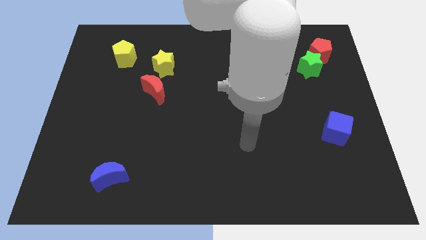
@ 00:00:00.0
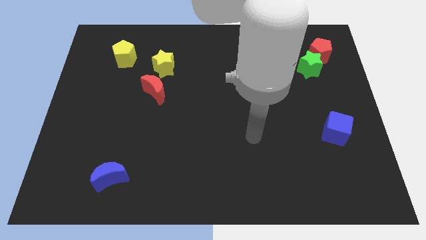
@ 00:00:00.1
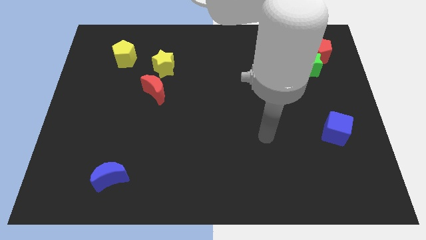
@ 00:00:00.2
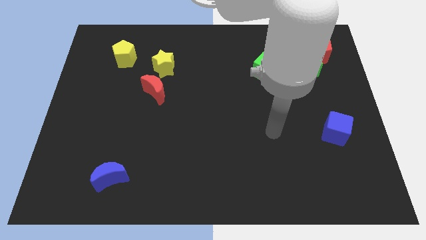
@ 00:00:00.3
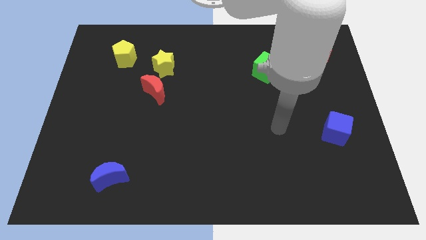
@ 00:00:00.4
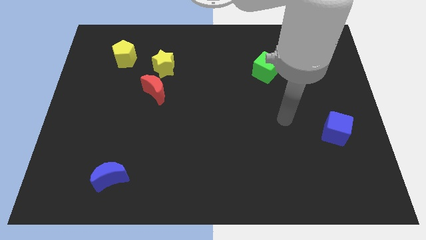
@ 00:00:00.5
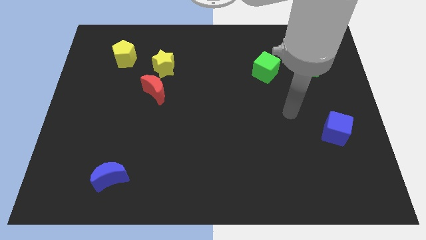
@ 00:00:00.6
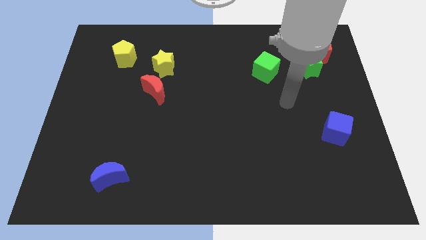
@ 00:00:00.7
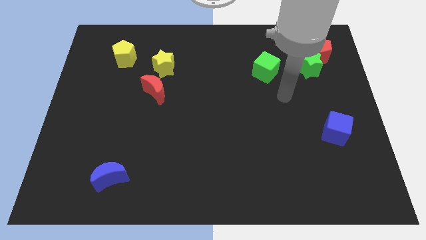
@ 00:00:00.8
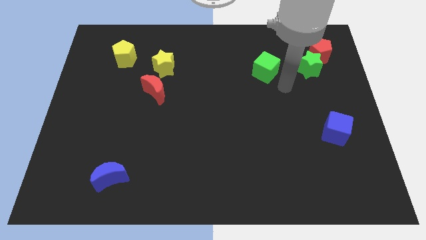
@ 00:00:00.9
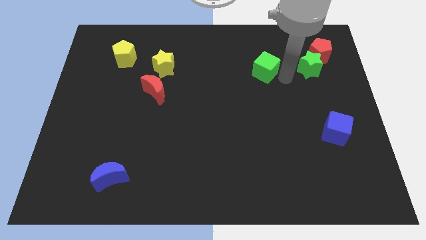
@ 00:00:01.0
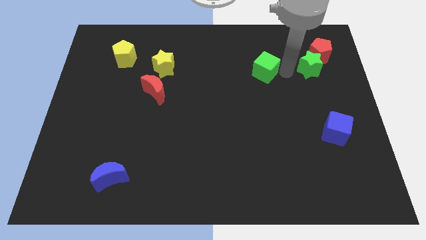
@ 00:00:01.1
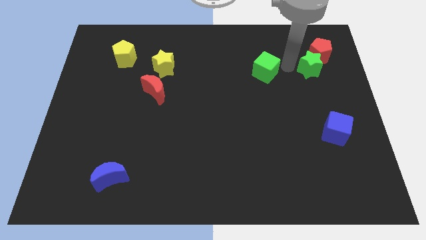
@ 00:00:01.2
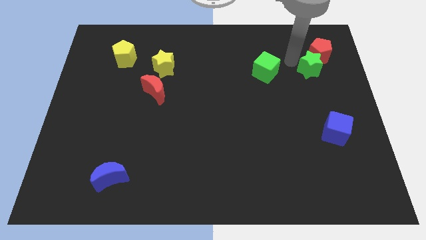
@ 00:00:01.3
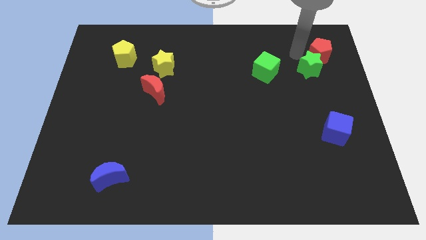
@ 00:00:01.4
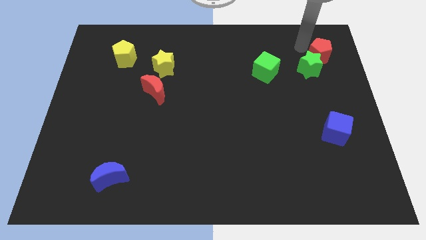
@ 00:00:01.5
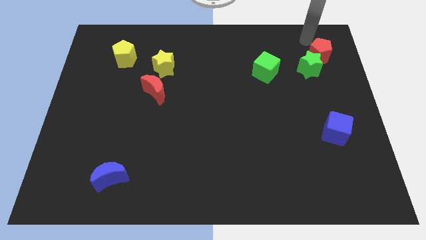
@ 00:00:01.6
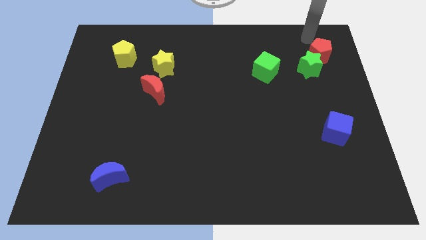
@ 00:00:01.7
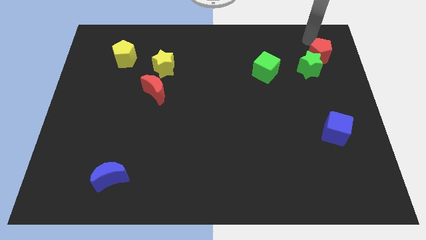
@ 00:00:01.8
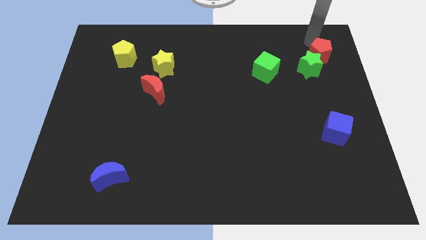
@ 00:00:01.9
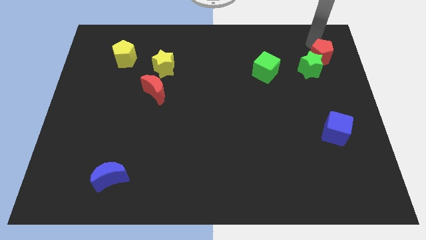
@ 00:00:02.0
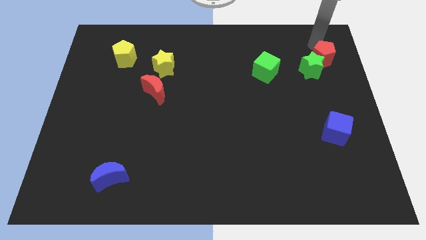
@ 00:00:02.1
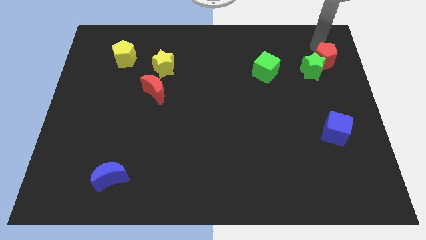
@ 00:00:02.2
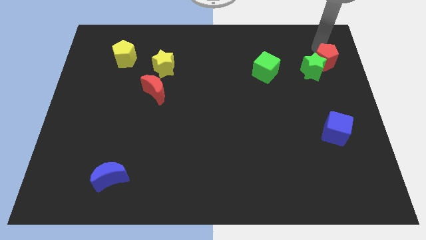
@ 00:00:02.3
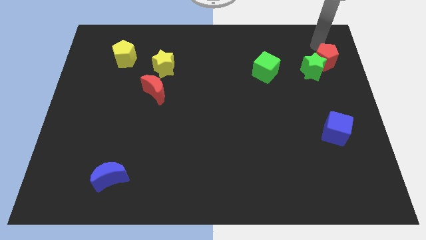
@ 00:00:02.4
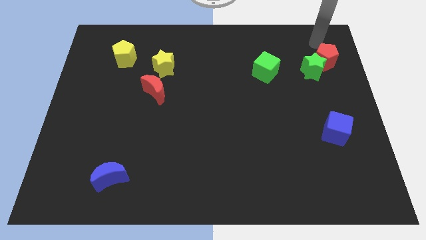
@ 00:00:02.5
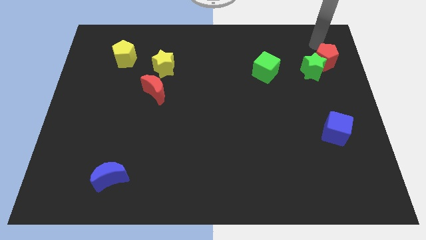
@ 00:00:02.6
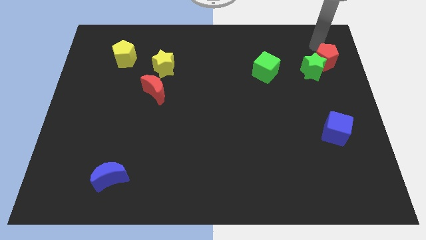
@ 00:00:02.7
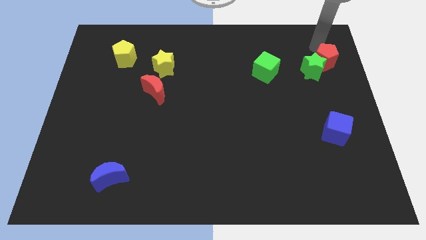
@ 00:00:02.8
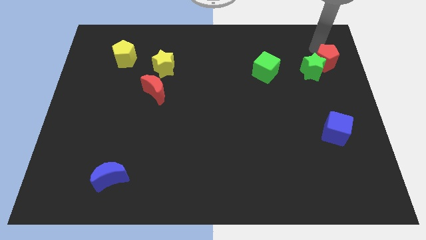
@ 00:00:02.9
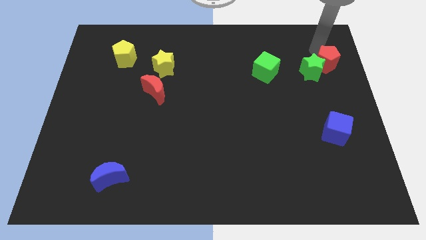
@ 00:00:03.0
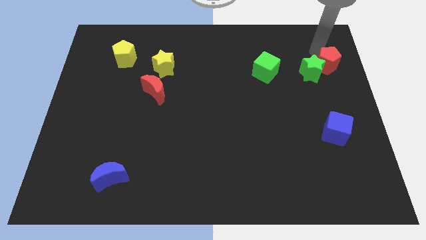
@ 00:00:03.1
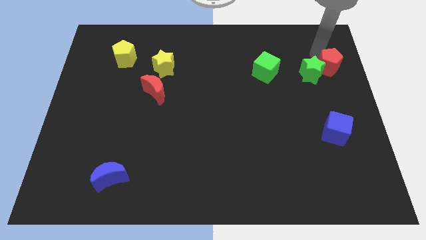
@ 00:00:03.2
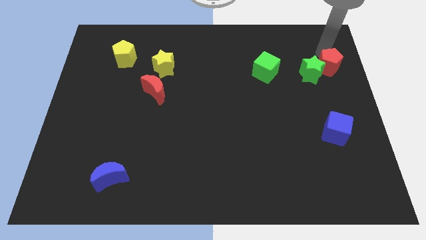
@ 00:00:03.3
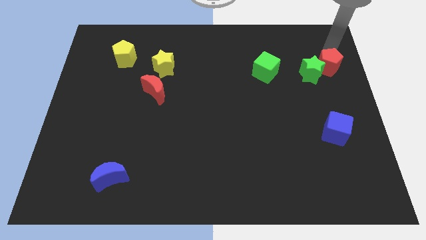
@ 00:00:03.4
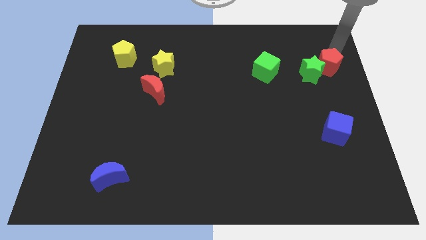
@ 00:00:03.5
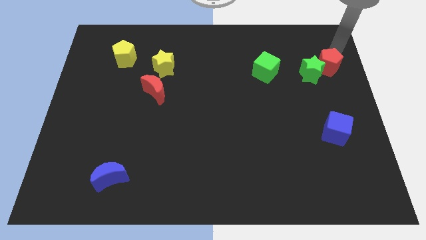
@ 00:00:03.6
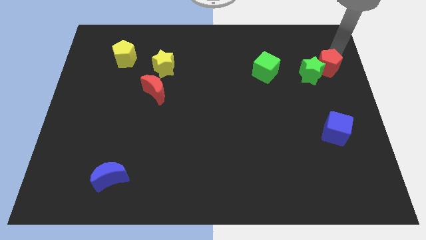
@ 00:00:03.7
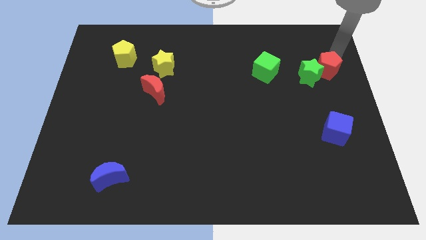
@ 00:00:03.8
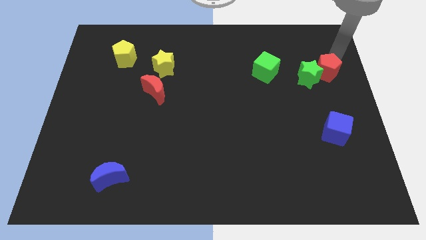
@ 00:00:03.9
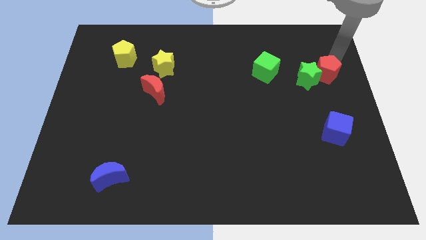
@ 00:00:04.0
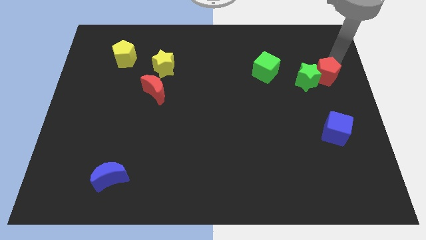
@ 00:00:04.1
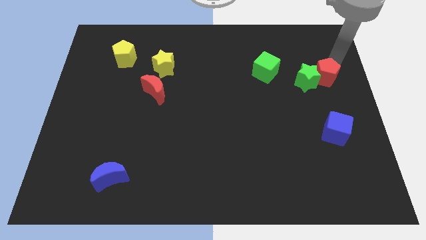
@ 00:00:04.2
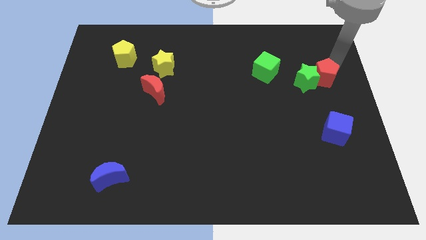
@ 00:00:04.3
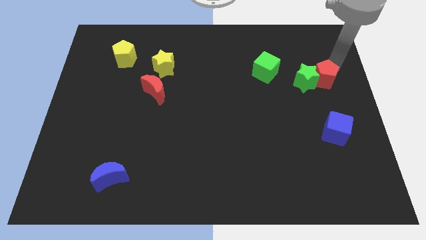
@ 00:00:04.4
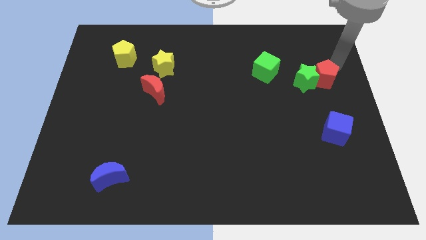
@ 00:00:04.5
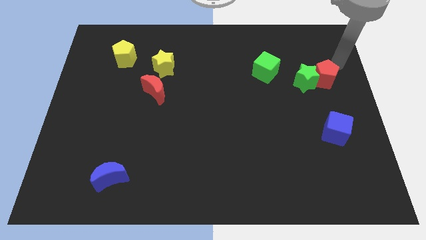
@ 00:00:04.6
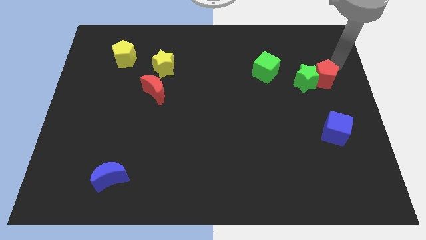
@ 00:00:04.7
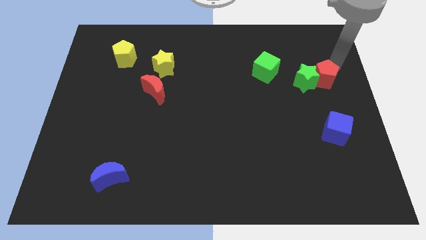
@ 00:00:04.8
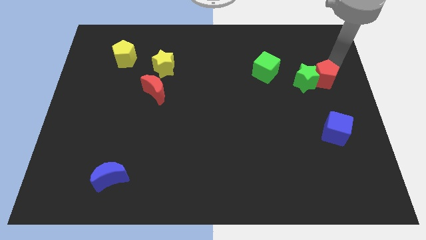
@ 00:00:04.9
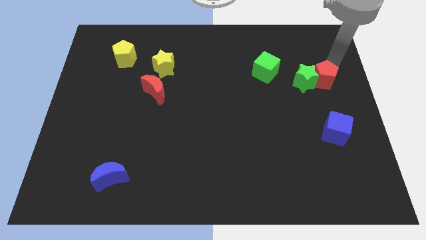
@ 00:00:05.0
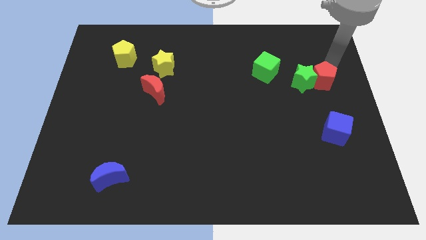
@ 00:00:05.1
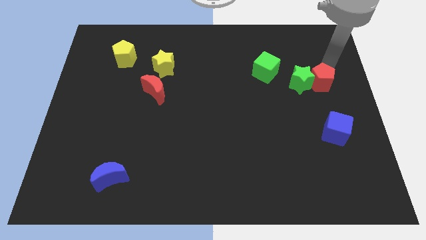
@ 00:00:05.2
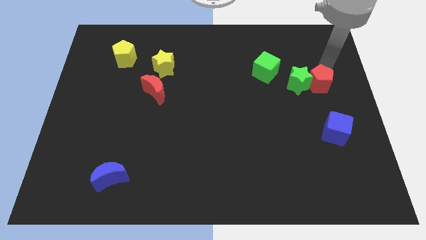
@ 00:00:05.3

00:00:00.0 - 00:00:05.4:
slide the red pentagon a little bit diagonally downwards and to the left

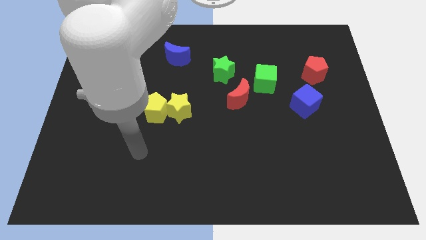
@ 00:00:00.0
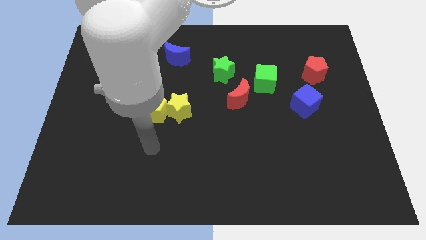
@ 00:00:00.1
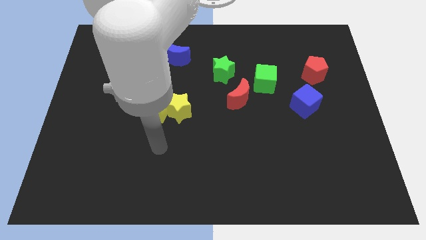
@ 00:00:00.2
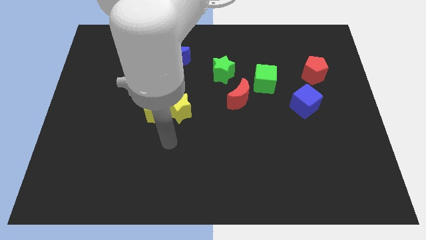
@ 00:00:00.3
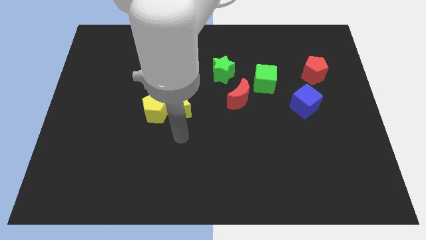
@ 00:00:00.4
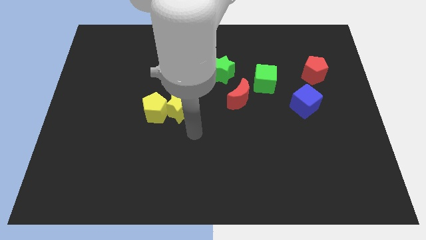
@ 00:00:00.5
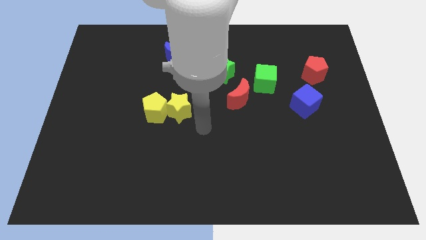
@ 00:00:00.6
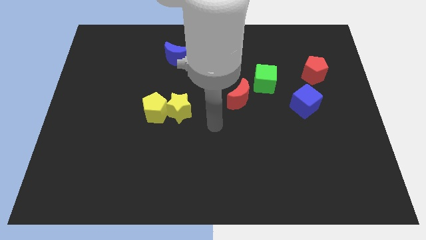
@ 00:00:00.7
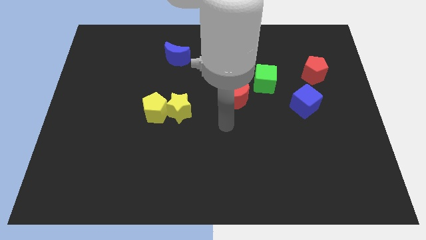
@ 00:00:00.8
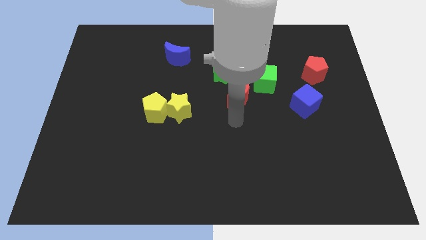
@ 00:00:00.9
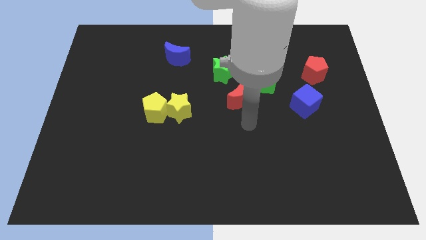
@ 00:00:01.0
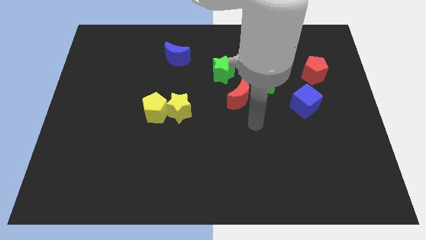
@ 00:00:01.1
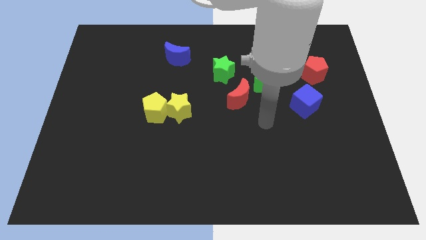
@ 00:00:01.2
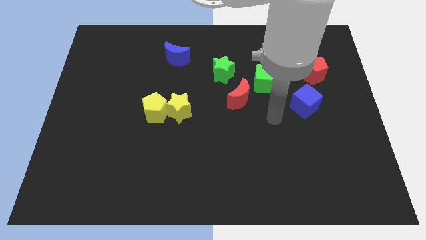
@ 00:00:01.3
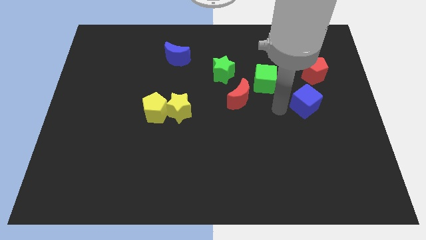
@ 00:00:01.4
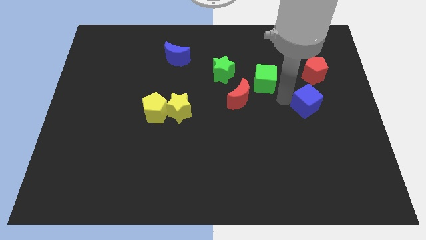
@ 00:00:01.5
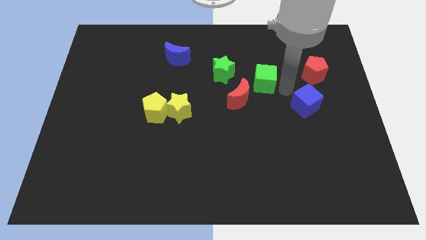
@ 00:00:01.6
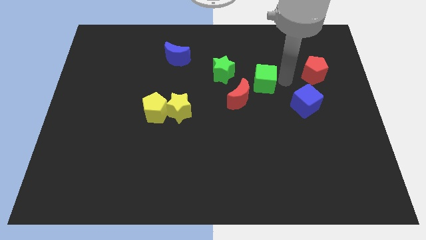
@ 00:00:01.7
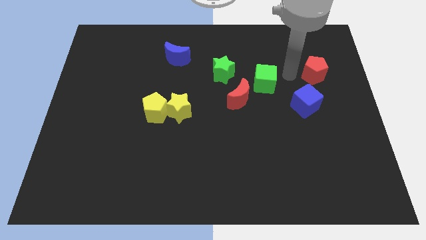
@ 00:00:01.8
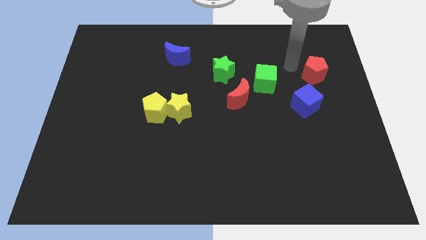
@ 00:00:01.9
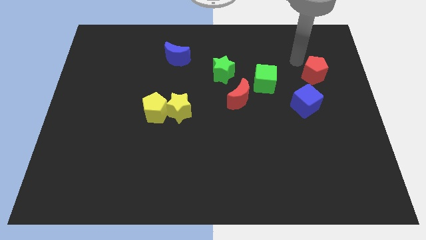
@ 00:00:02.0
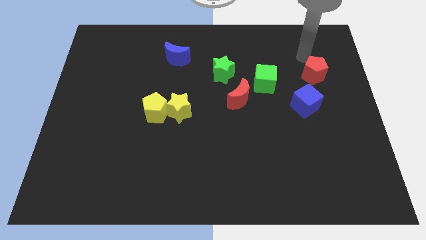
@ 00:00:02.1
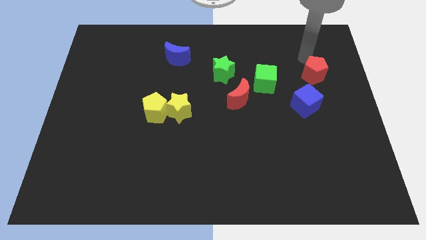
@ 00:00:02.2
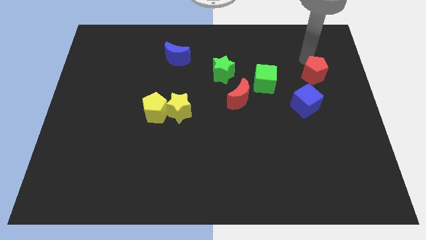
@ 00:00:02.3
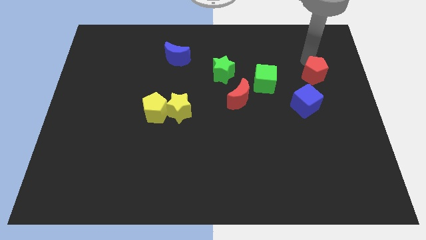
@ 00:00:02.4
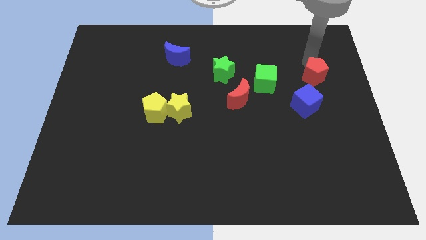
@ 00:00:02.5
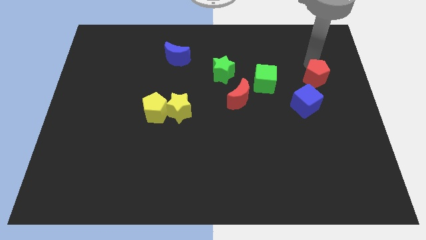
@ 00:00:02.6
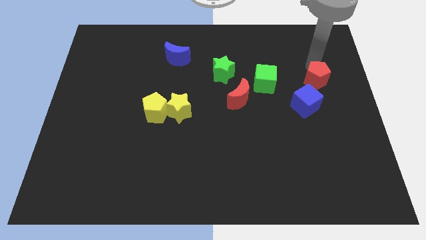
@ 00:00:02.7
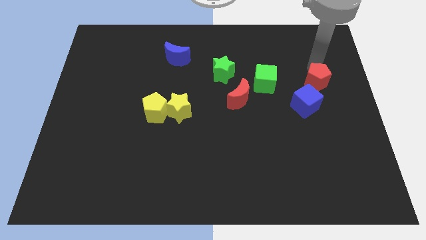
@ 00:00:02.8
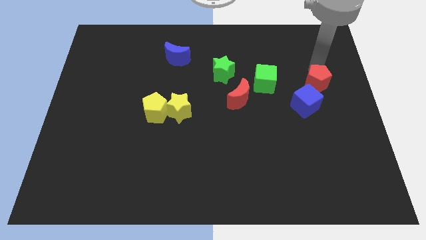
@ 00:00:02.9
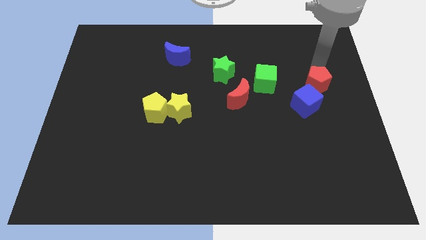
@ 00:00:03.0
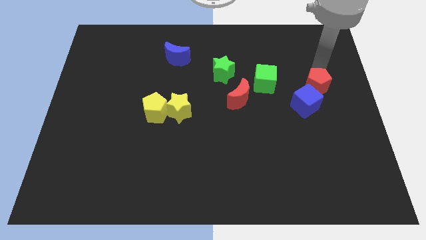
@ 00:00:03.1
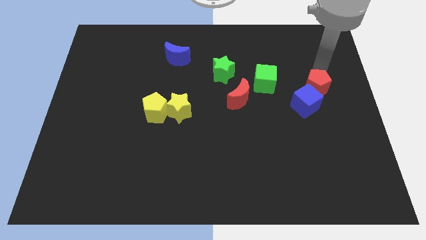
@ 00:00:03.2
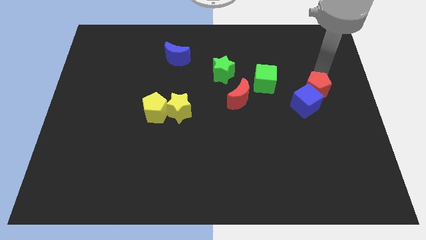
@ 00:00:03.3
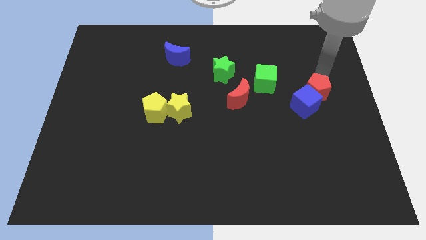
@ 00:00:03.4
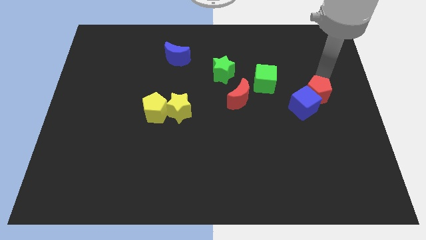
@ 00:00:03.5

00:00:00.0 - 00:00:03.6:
push the red pentagon downwards a little bit
